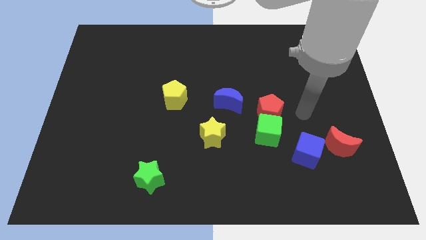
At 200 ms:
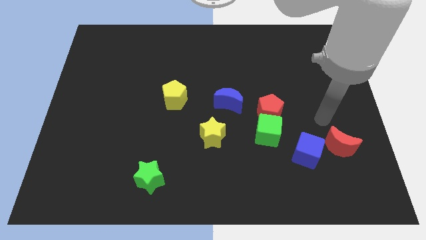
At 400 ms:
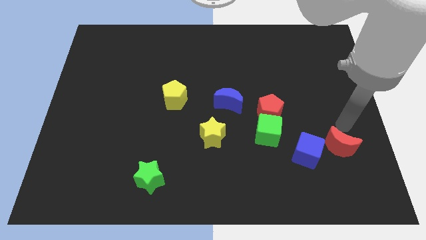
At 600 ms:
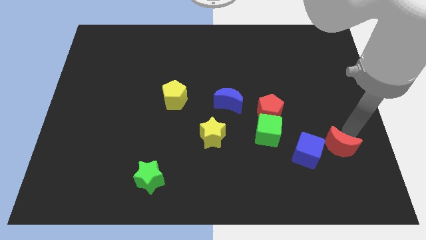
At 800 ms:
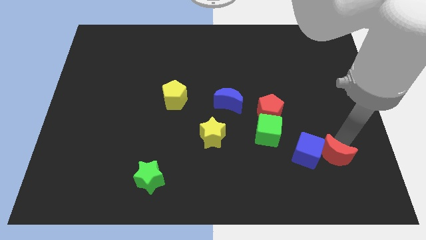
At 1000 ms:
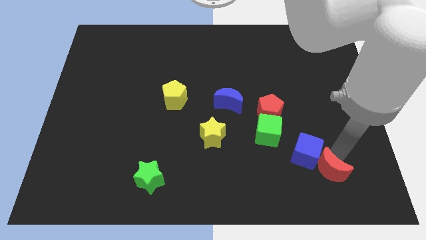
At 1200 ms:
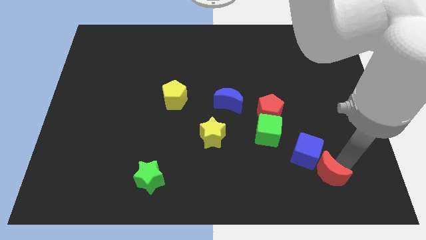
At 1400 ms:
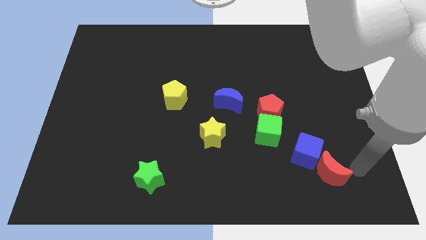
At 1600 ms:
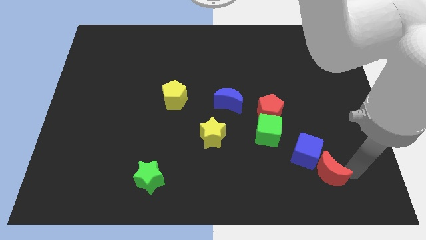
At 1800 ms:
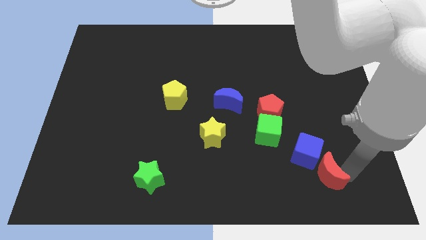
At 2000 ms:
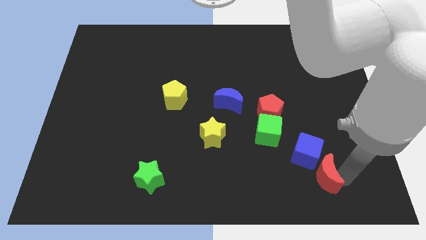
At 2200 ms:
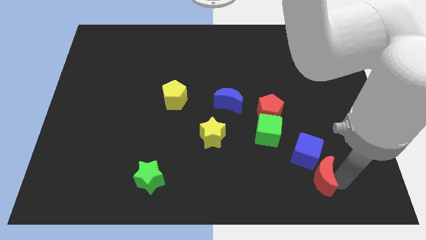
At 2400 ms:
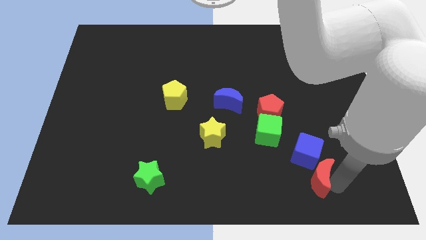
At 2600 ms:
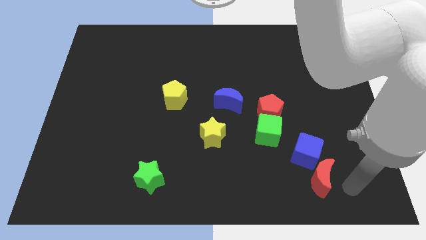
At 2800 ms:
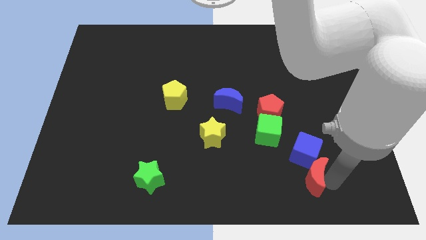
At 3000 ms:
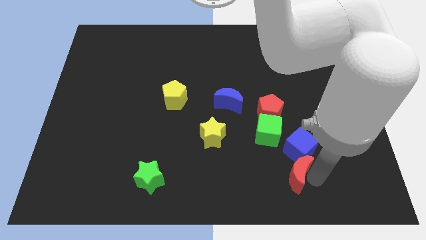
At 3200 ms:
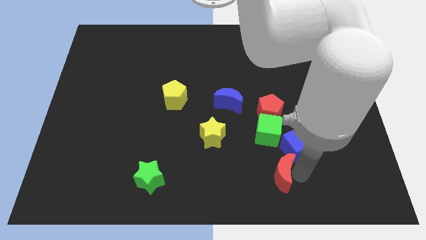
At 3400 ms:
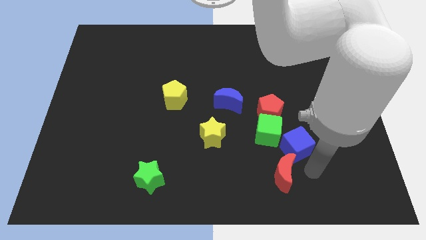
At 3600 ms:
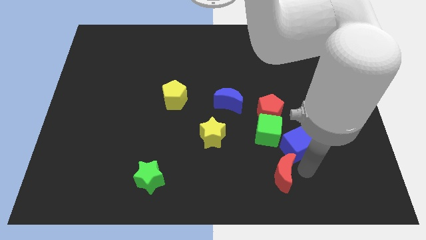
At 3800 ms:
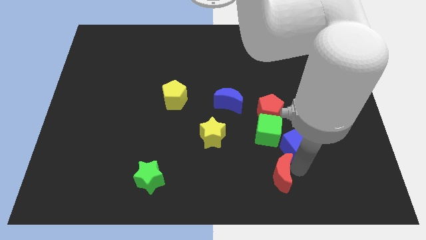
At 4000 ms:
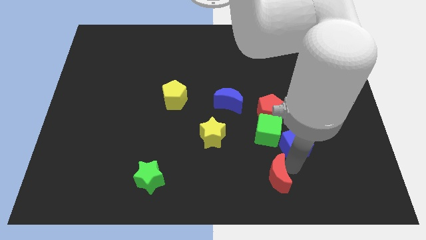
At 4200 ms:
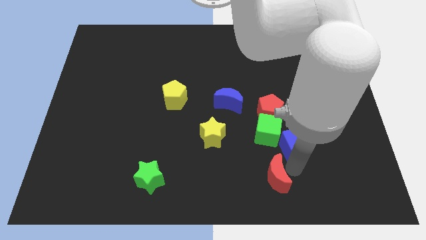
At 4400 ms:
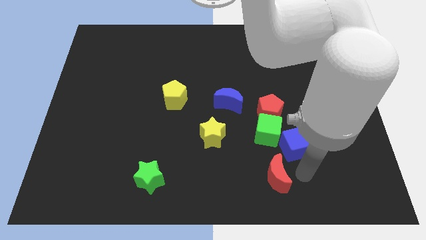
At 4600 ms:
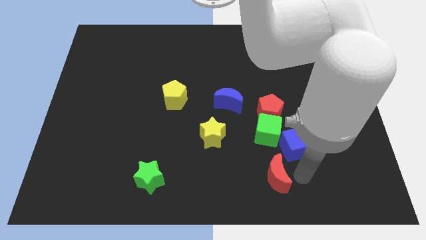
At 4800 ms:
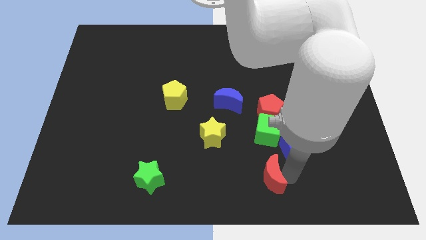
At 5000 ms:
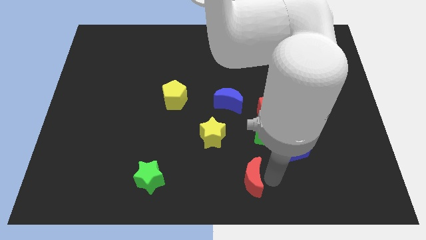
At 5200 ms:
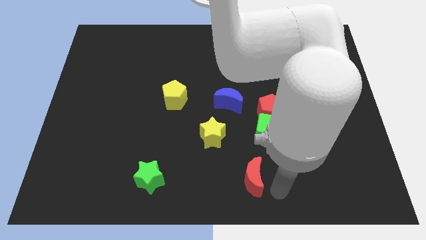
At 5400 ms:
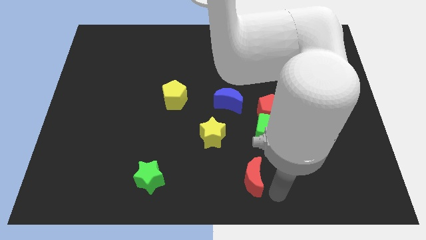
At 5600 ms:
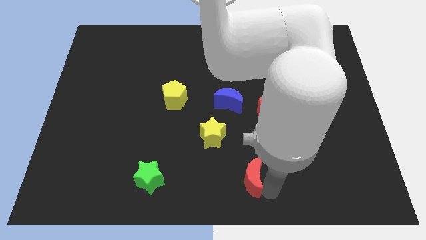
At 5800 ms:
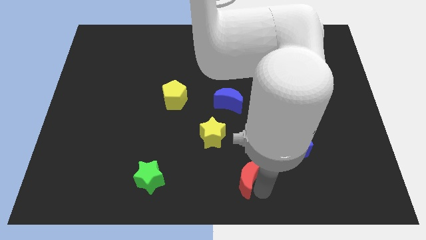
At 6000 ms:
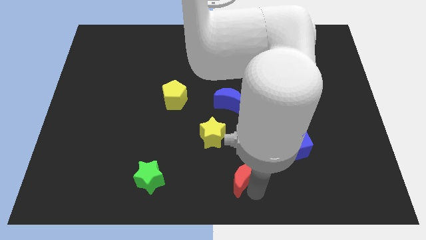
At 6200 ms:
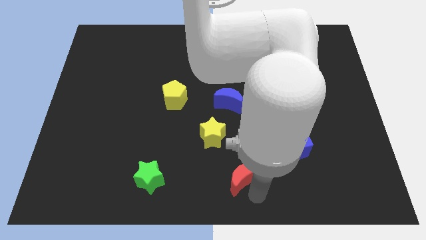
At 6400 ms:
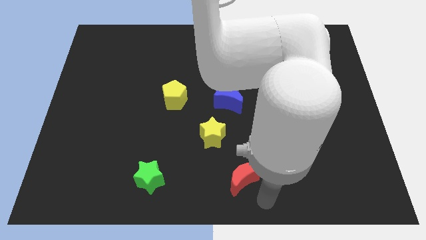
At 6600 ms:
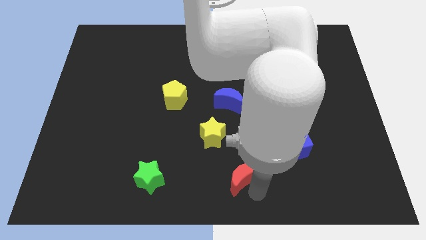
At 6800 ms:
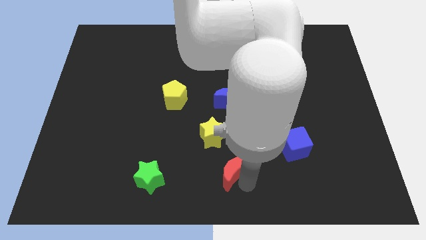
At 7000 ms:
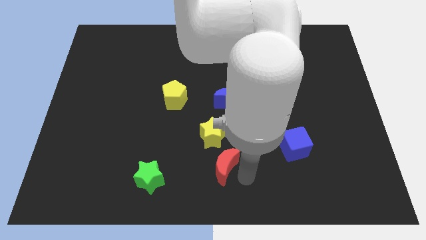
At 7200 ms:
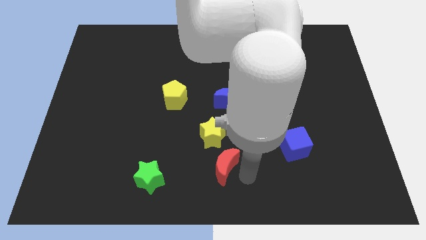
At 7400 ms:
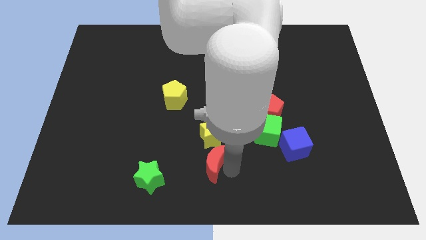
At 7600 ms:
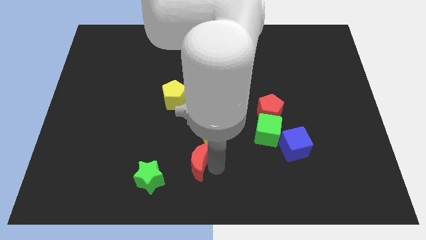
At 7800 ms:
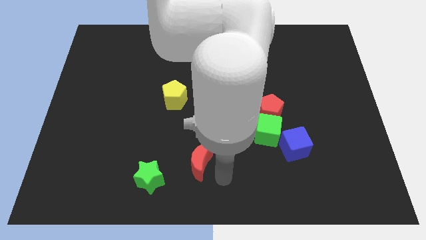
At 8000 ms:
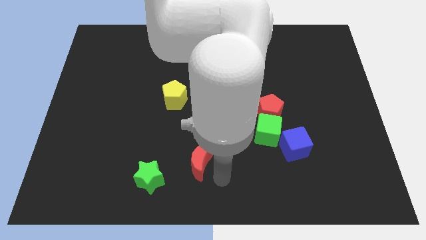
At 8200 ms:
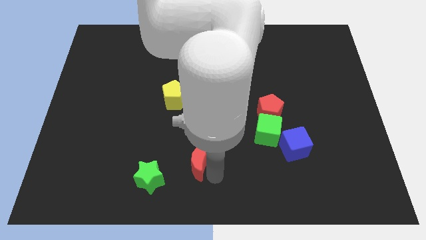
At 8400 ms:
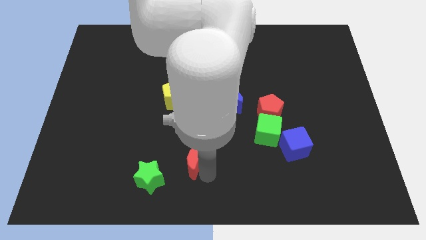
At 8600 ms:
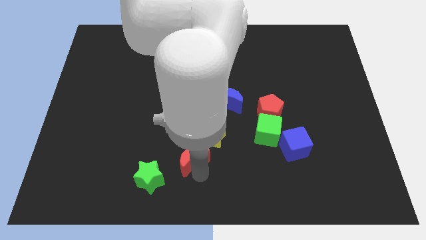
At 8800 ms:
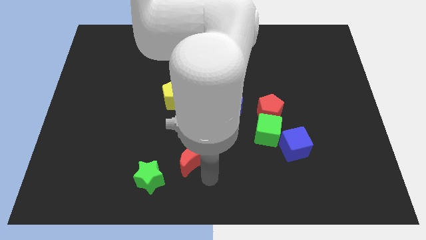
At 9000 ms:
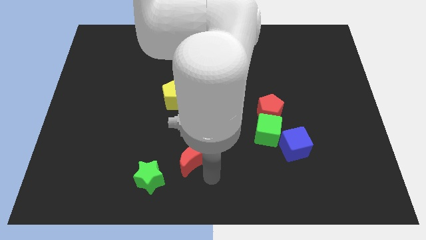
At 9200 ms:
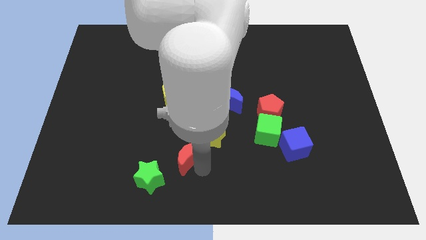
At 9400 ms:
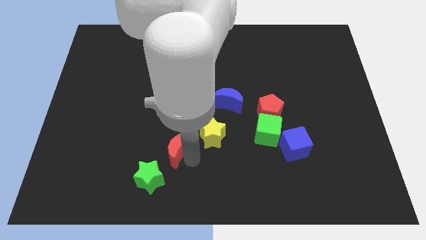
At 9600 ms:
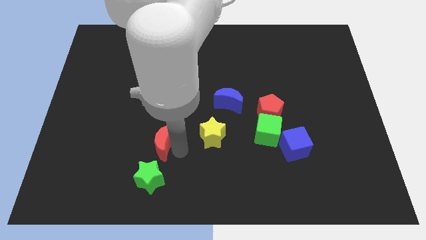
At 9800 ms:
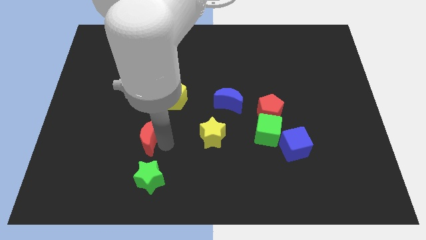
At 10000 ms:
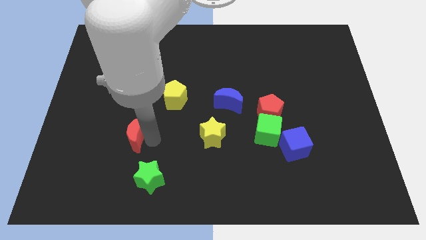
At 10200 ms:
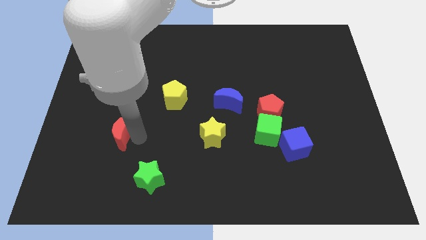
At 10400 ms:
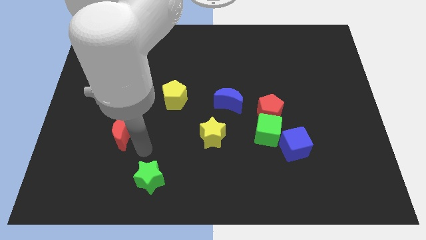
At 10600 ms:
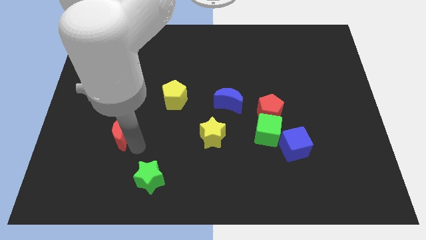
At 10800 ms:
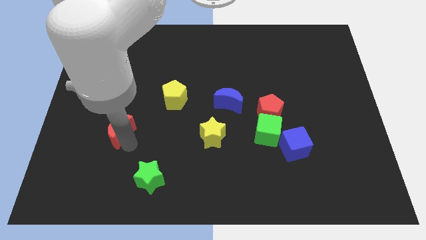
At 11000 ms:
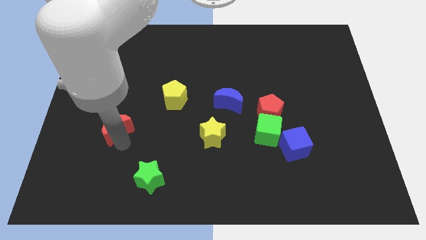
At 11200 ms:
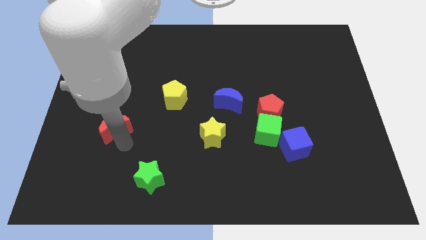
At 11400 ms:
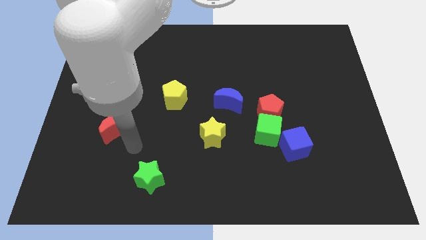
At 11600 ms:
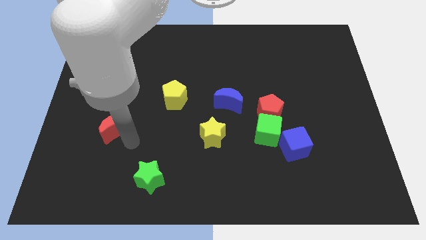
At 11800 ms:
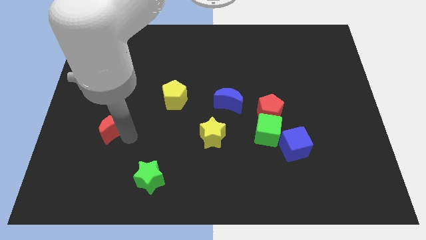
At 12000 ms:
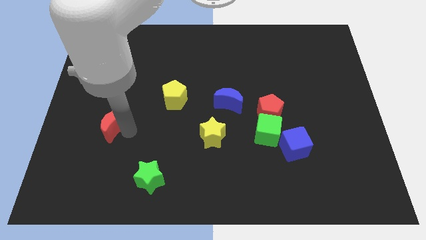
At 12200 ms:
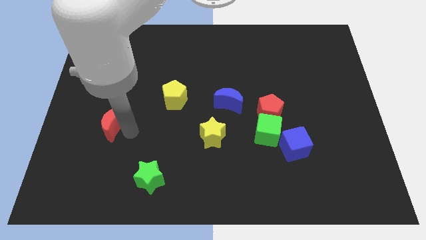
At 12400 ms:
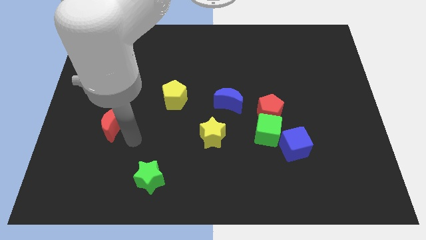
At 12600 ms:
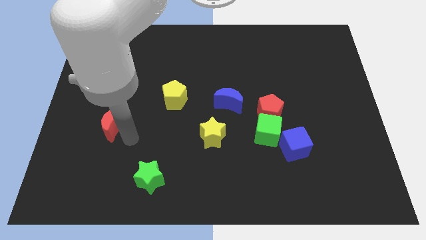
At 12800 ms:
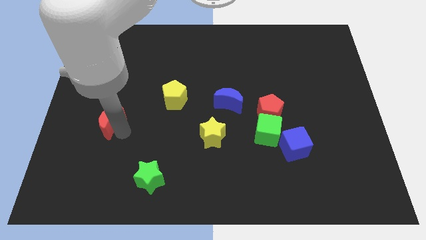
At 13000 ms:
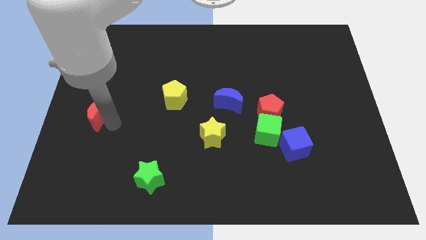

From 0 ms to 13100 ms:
push the red moon to the left side

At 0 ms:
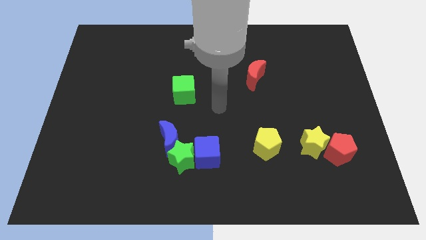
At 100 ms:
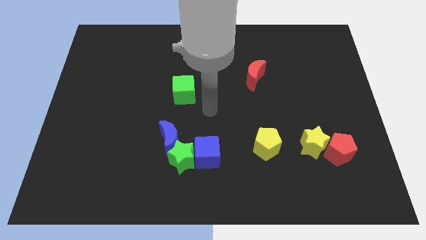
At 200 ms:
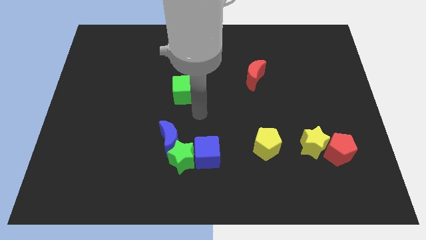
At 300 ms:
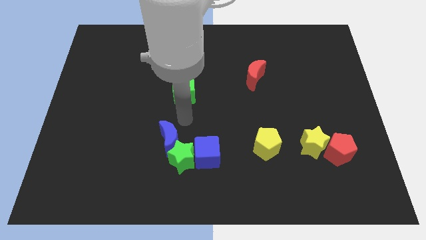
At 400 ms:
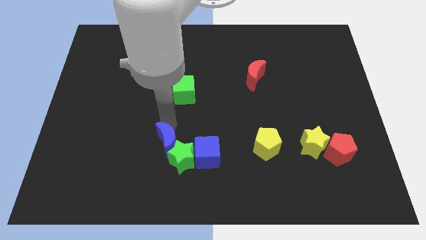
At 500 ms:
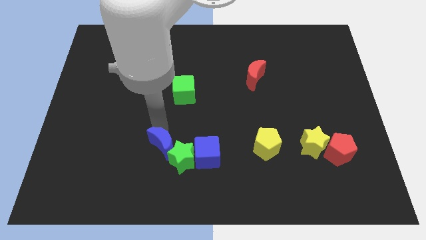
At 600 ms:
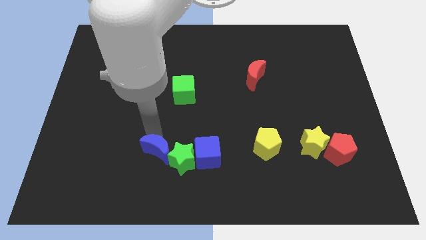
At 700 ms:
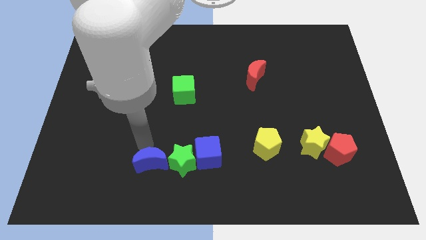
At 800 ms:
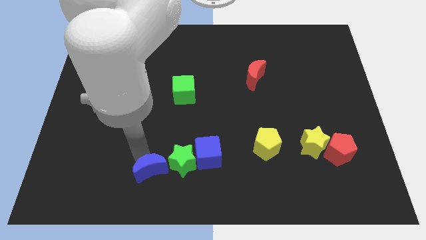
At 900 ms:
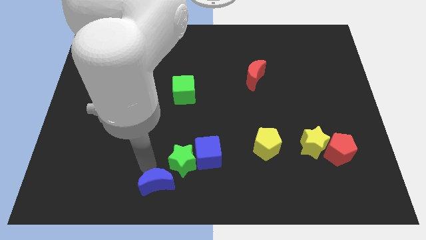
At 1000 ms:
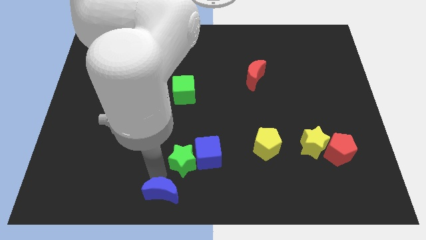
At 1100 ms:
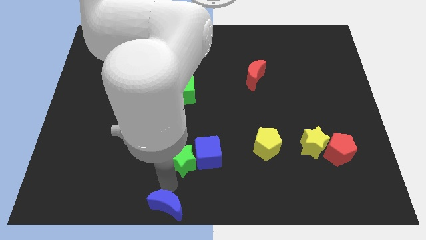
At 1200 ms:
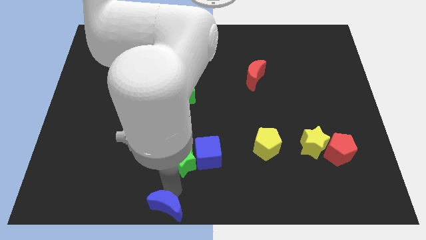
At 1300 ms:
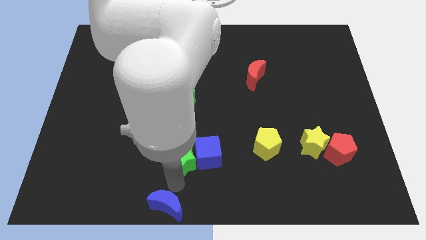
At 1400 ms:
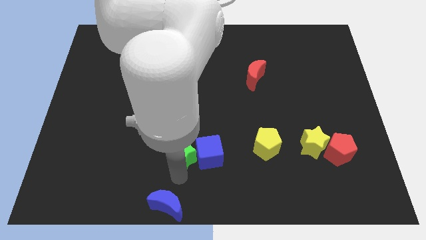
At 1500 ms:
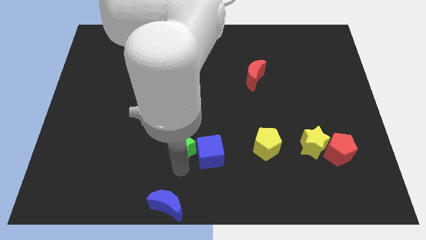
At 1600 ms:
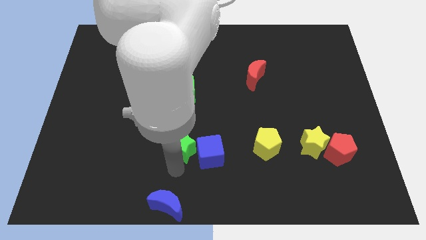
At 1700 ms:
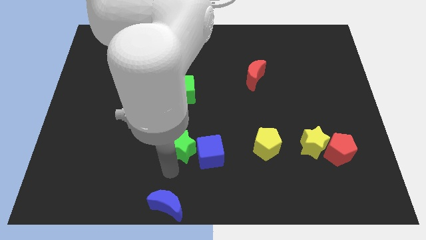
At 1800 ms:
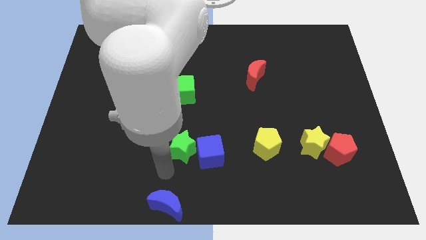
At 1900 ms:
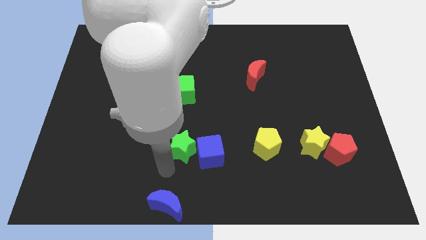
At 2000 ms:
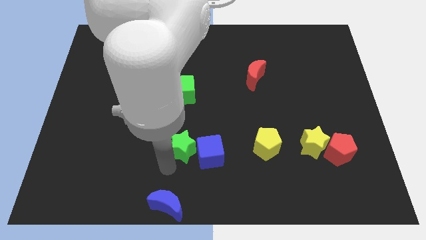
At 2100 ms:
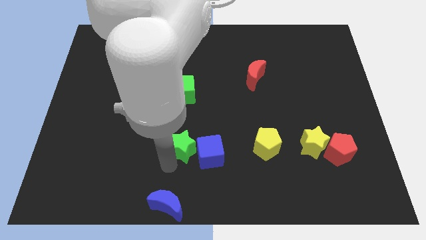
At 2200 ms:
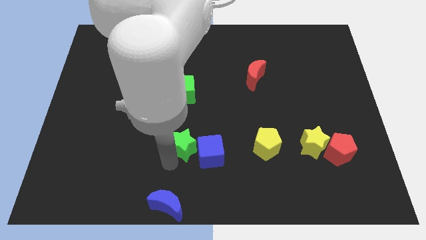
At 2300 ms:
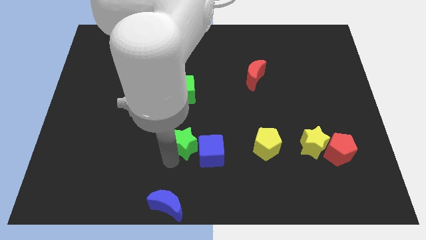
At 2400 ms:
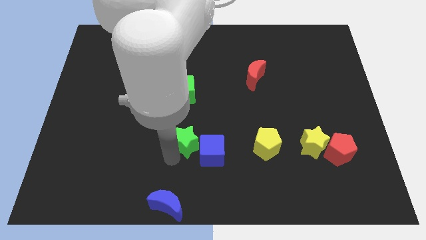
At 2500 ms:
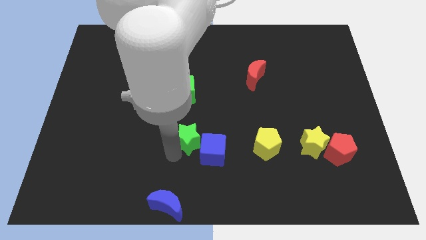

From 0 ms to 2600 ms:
put the green star to the center of the board
